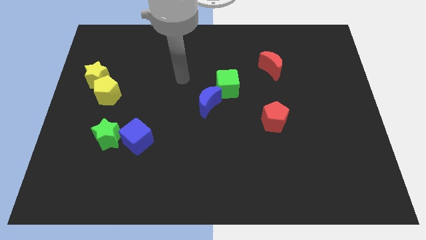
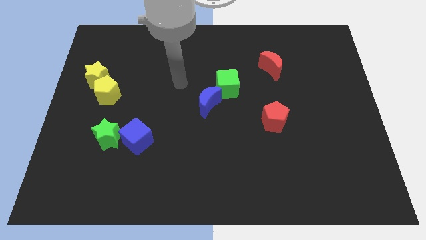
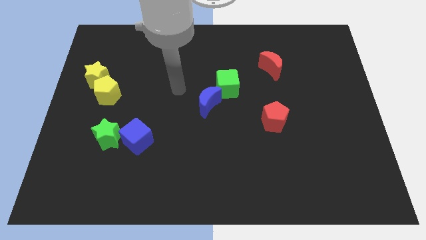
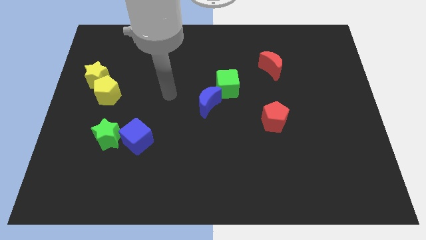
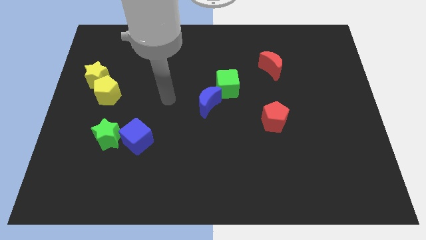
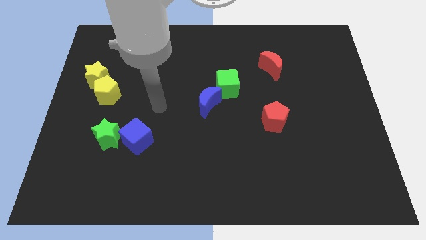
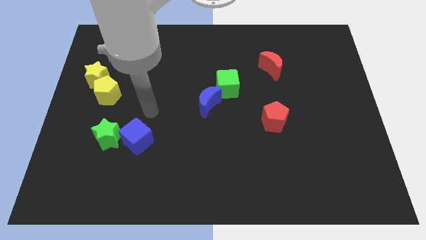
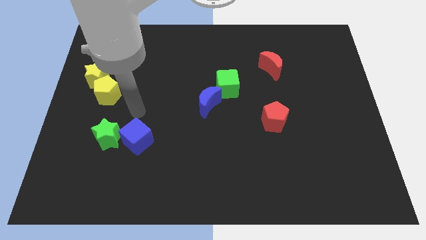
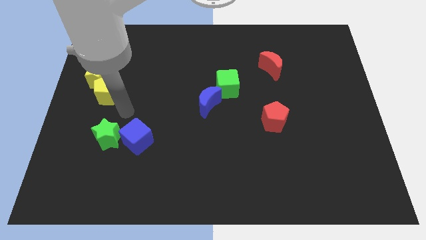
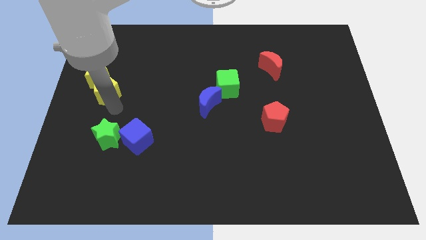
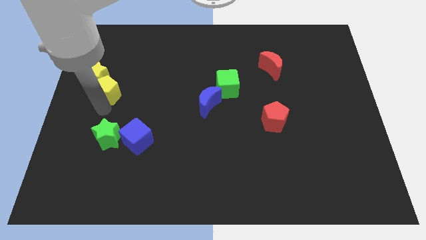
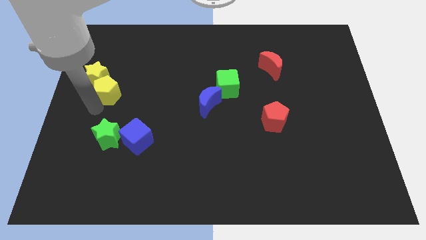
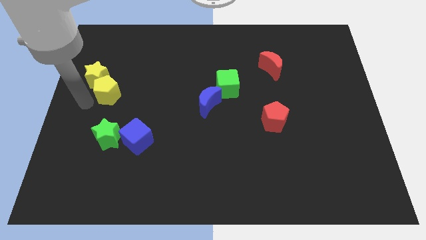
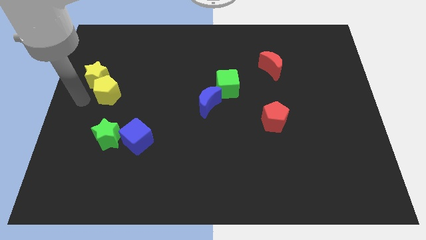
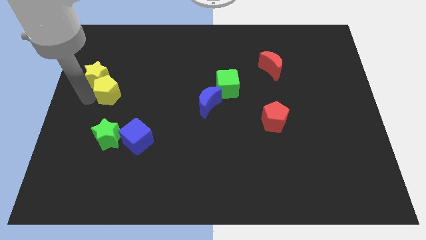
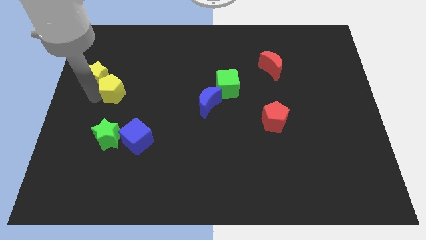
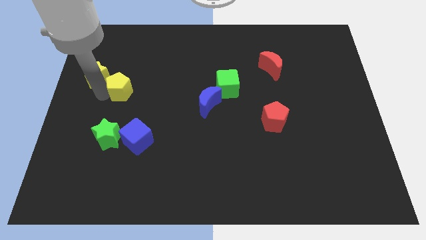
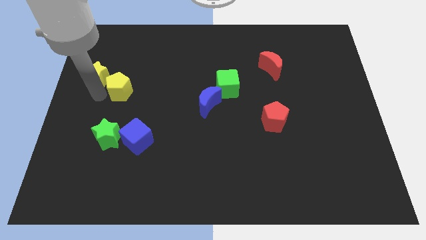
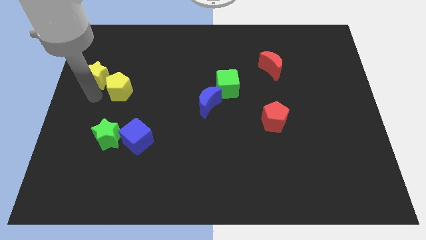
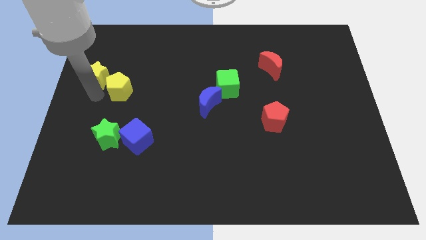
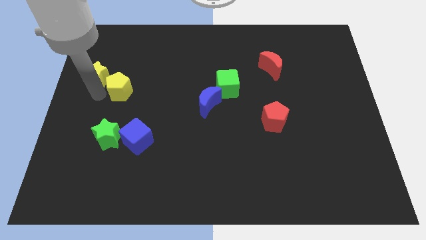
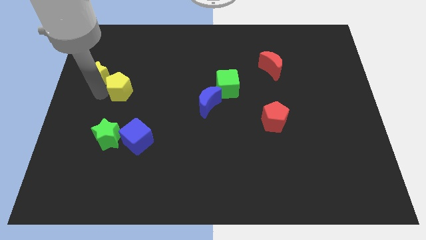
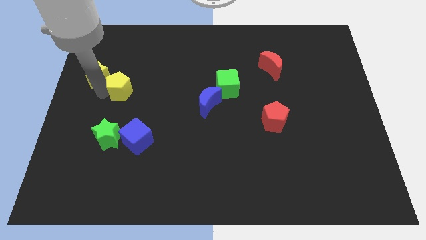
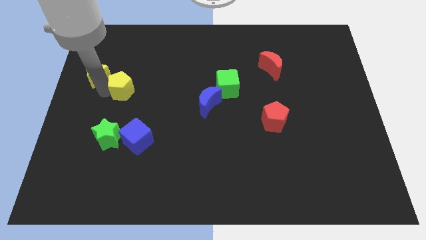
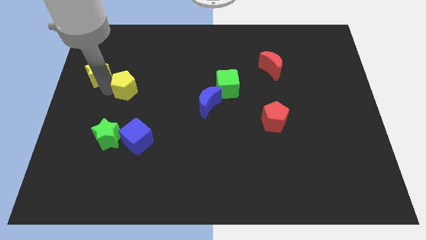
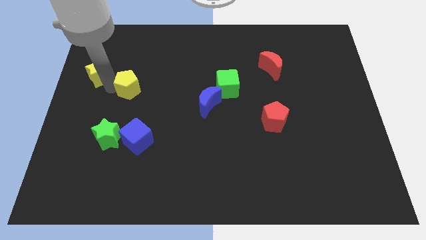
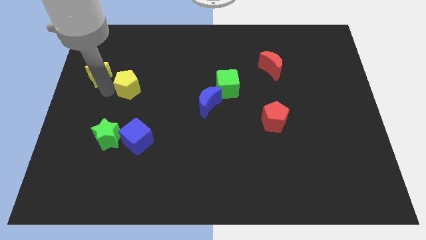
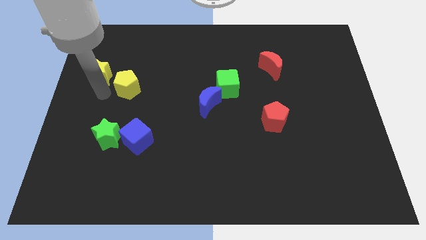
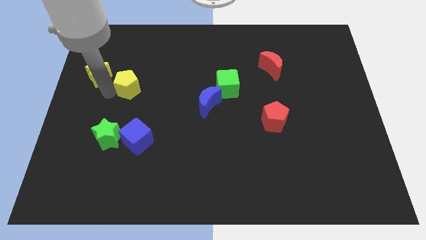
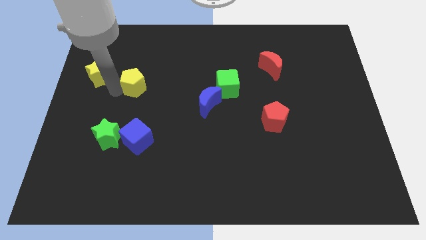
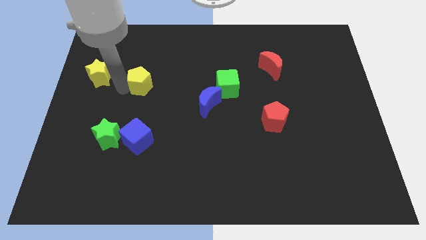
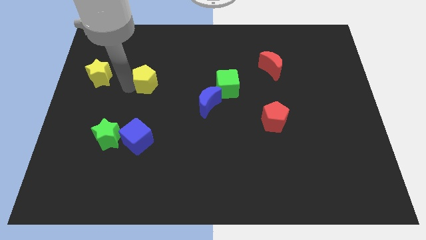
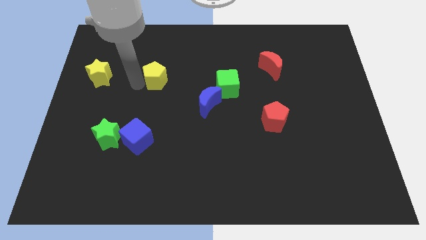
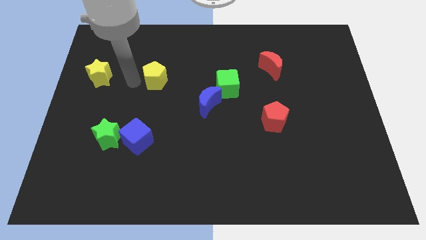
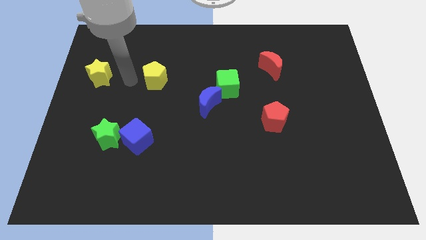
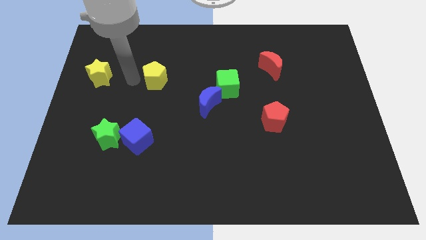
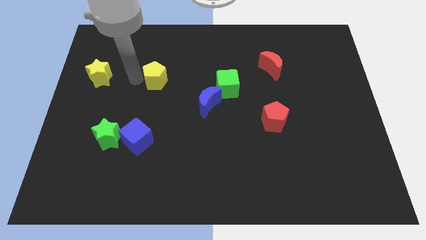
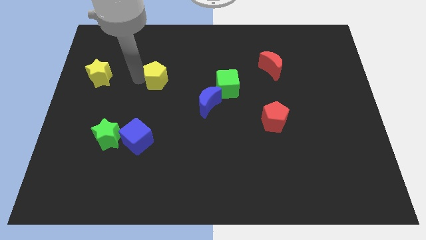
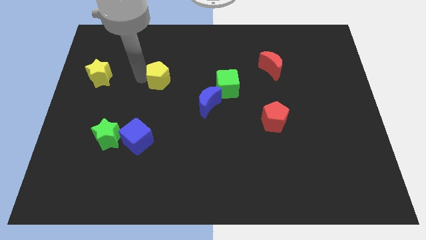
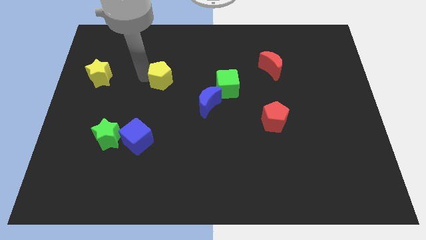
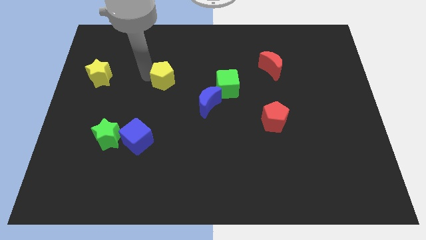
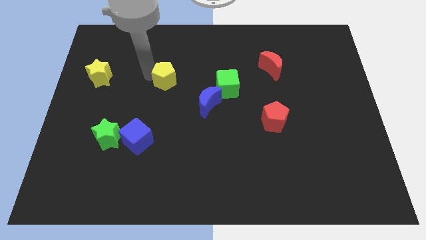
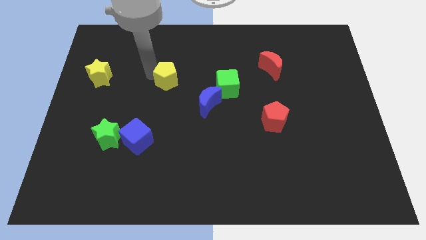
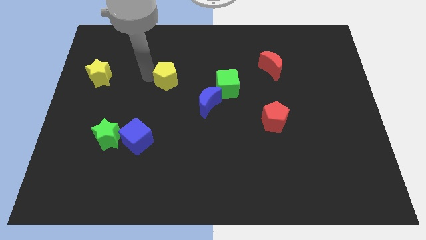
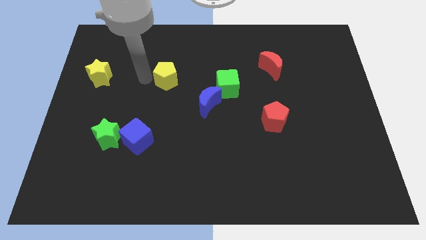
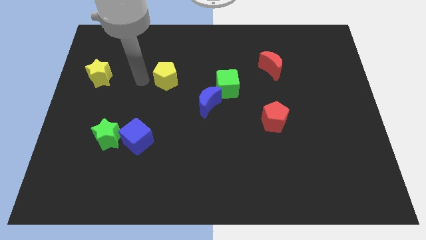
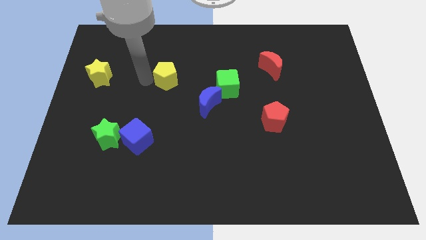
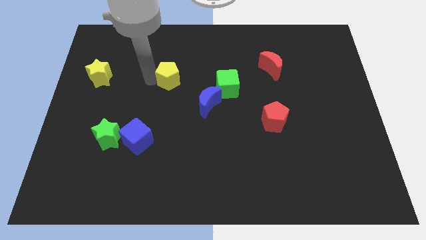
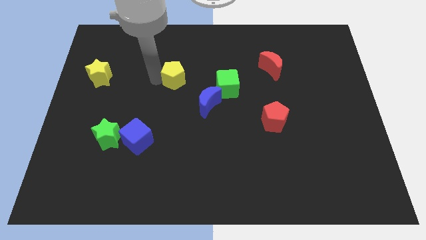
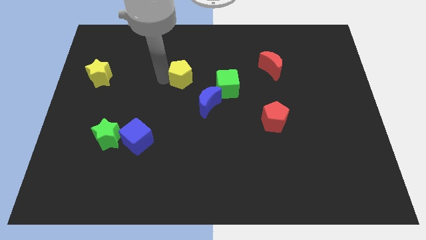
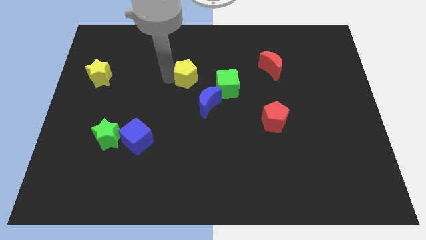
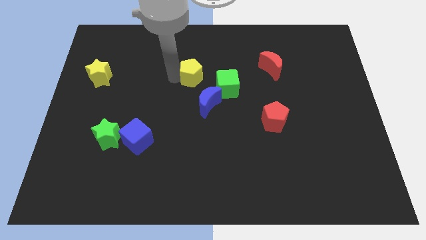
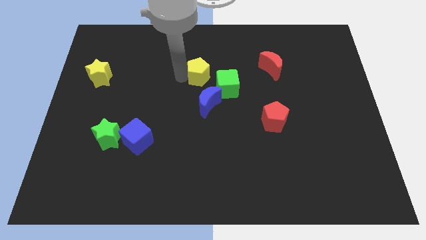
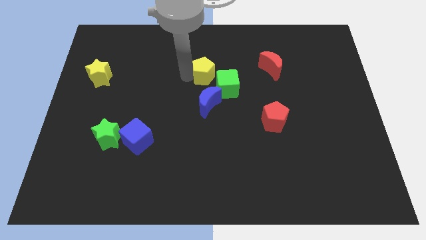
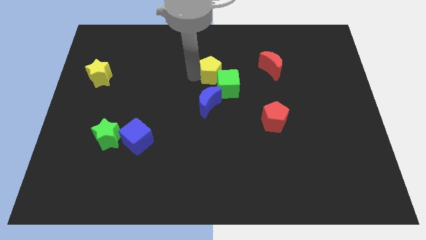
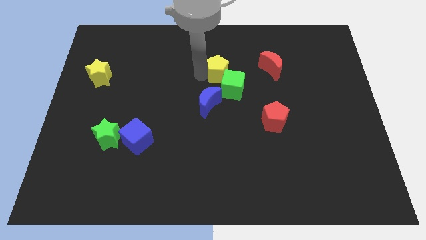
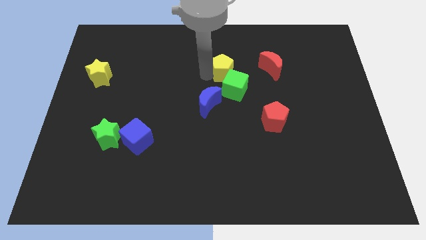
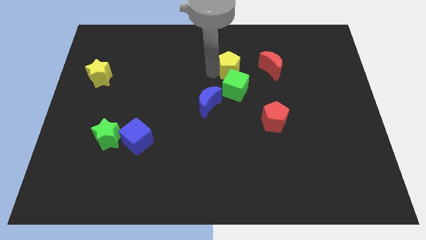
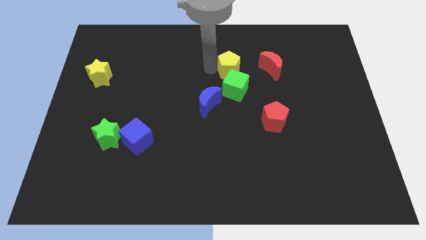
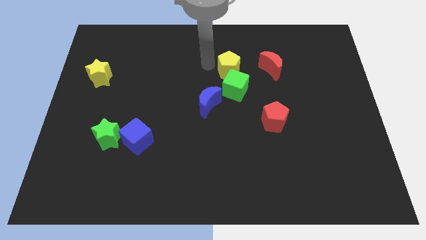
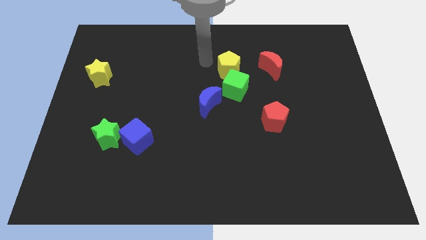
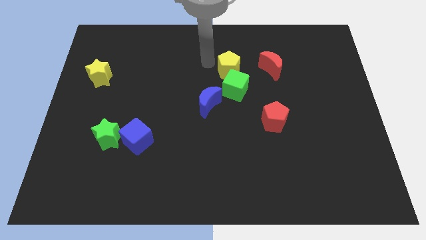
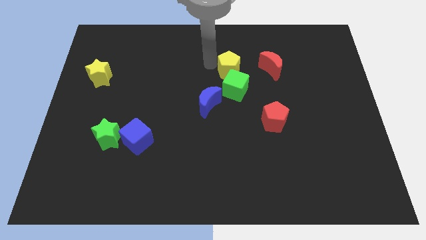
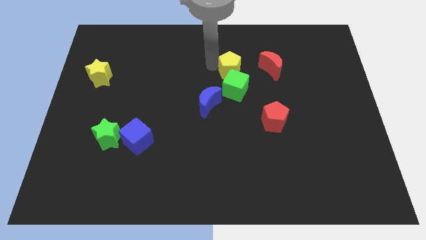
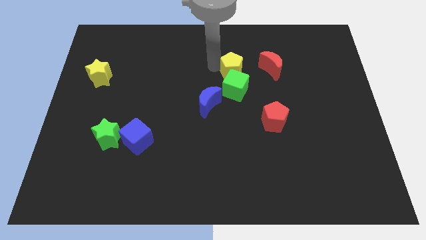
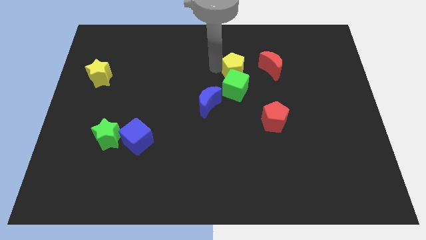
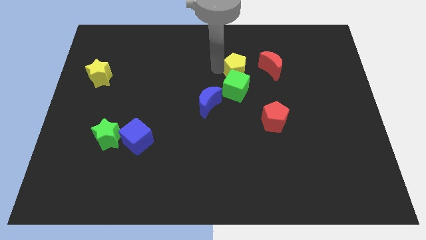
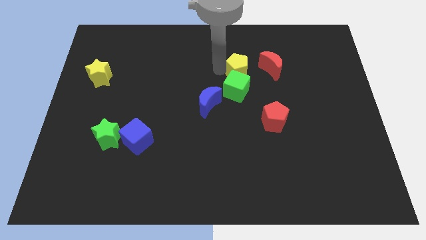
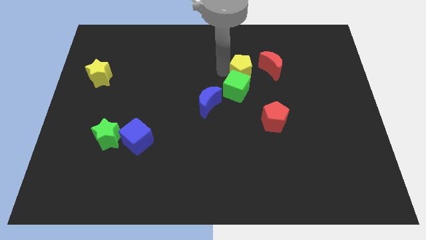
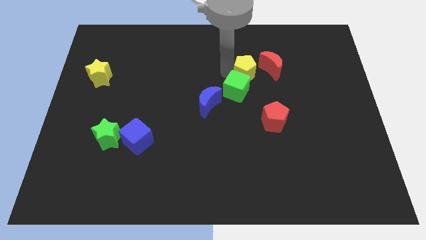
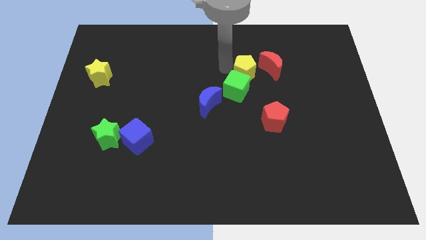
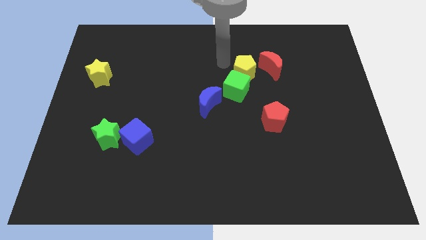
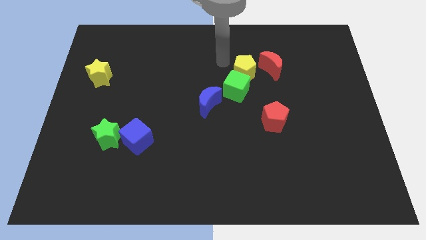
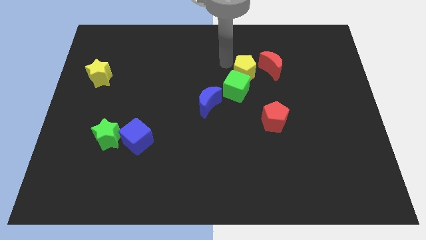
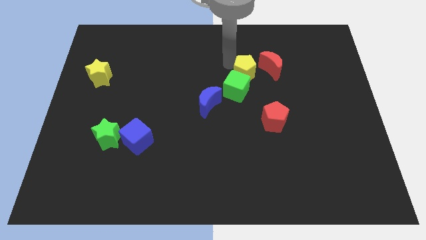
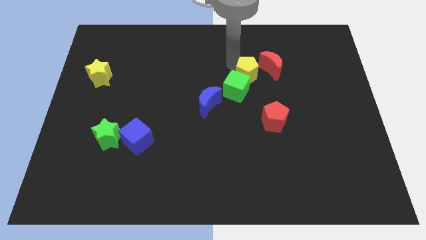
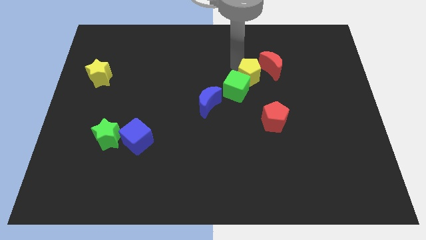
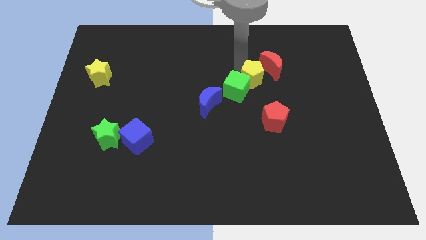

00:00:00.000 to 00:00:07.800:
slide the yellow pentagon to the right of the green cube

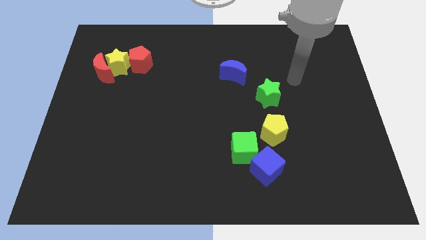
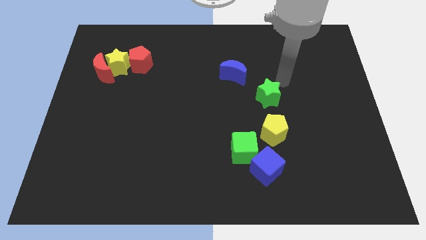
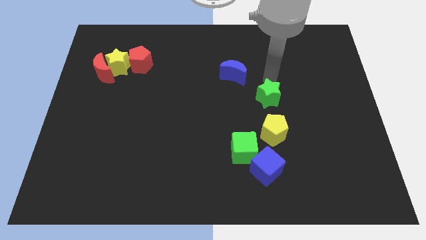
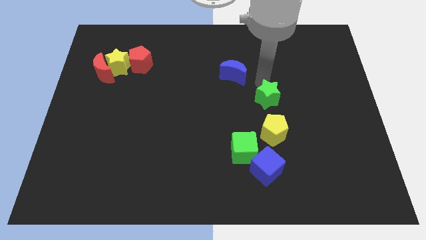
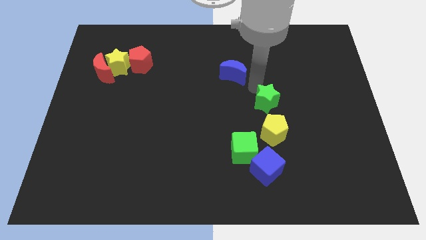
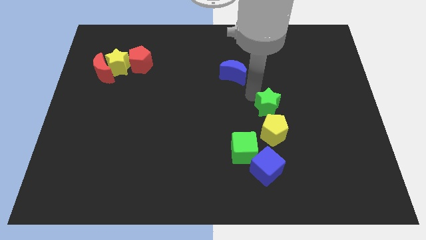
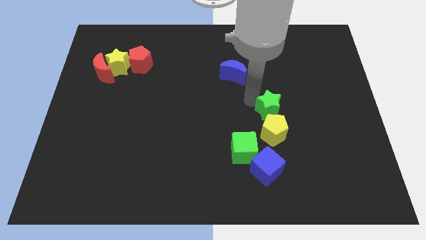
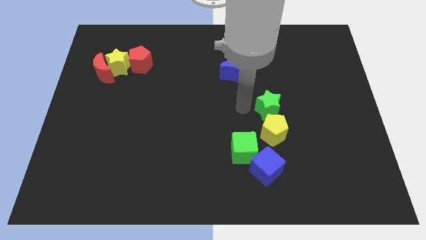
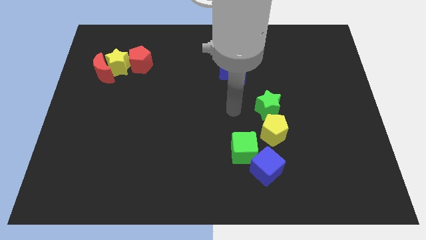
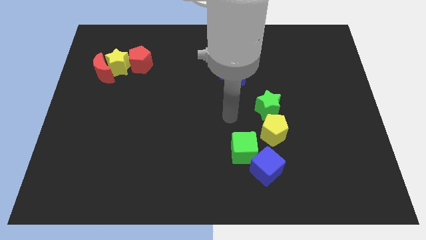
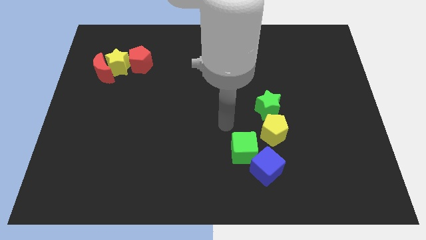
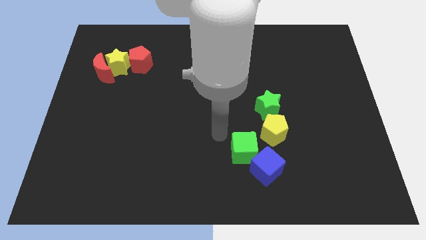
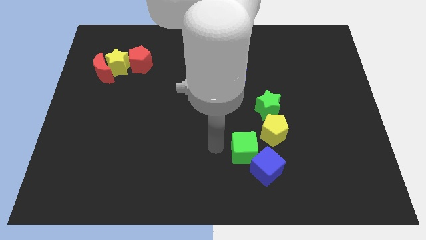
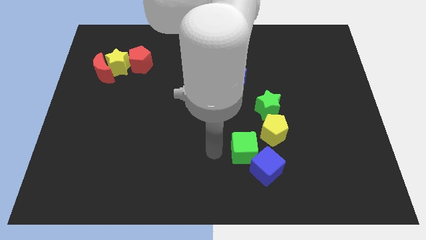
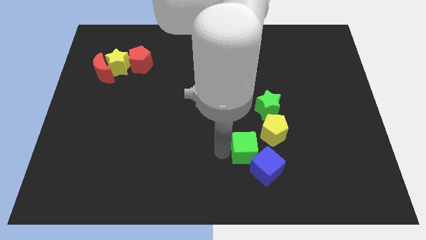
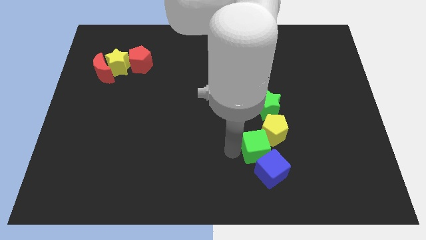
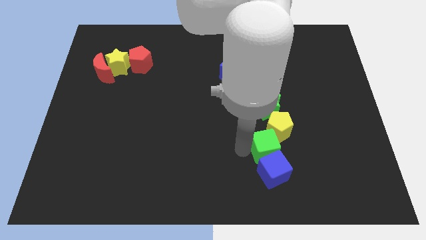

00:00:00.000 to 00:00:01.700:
put the green cube to the top right side of the blue cube
